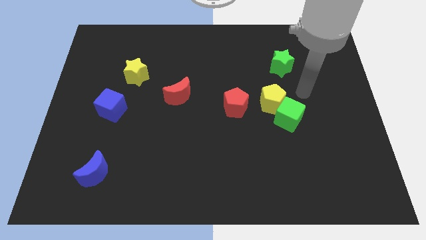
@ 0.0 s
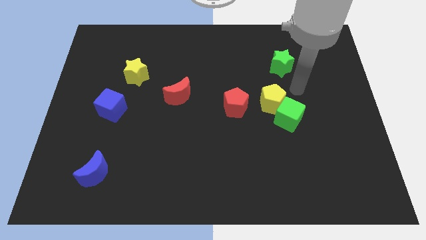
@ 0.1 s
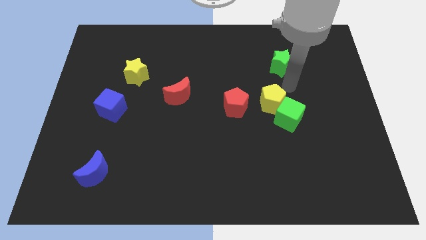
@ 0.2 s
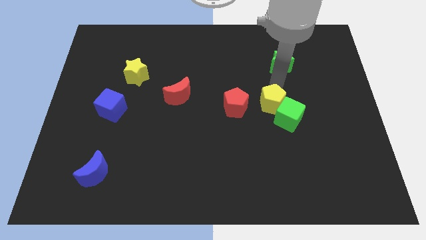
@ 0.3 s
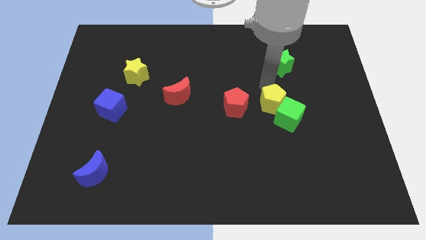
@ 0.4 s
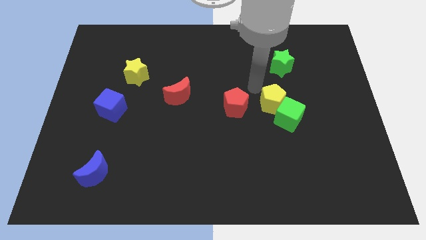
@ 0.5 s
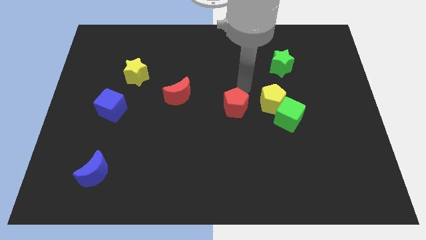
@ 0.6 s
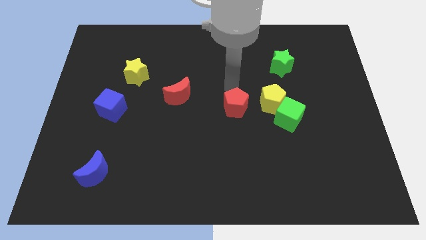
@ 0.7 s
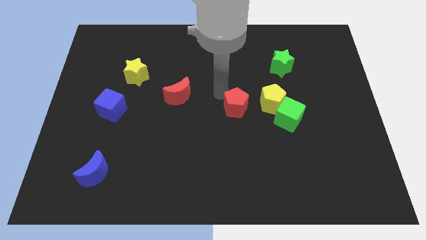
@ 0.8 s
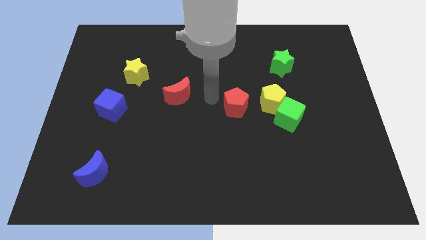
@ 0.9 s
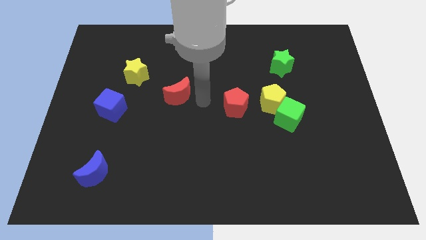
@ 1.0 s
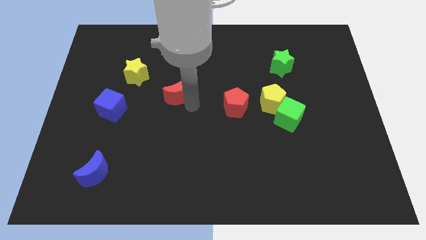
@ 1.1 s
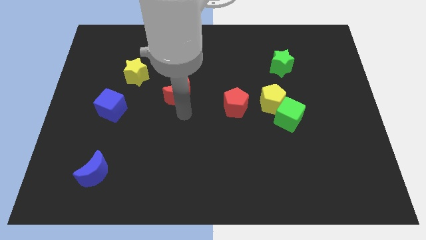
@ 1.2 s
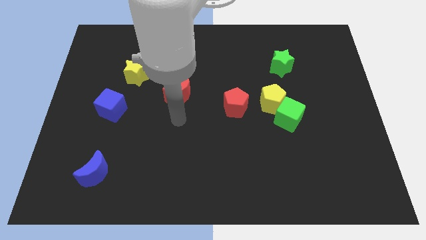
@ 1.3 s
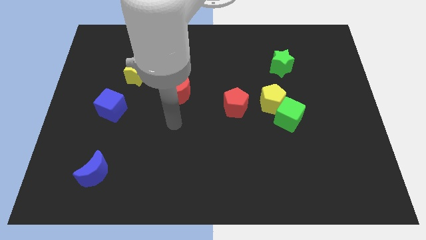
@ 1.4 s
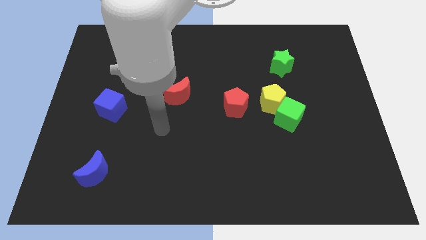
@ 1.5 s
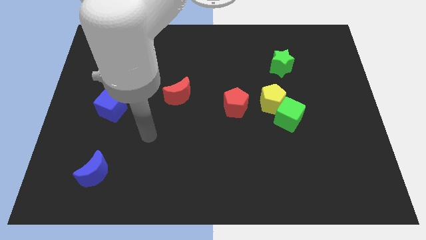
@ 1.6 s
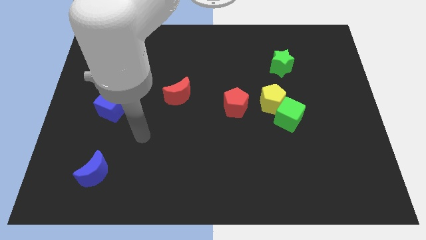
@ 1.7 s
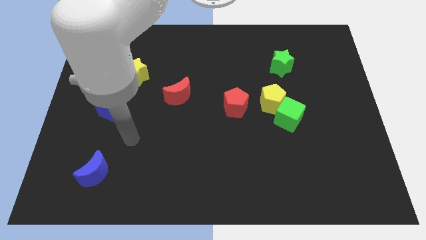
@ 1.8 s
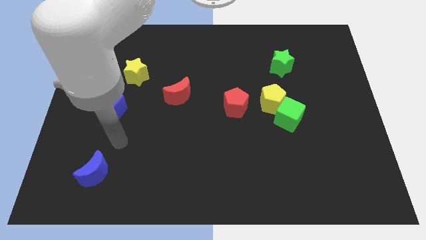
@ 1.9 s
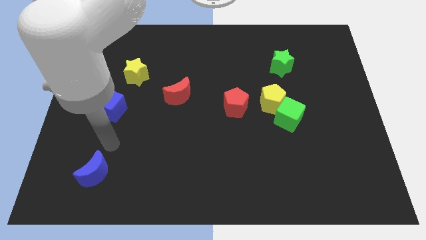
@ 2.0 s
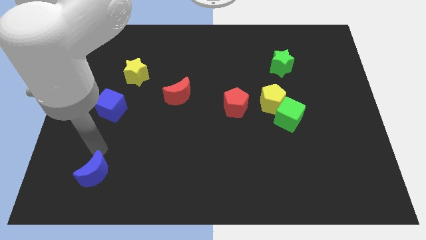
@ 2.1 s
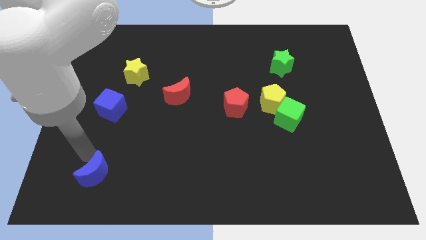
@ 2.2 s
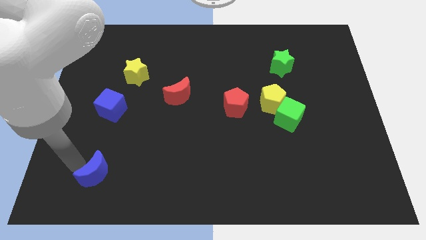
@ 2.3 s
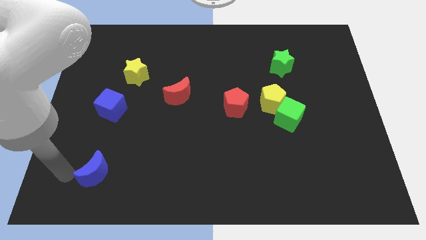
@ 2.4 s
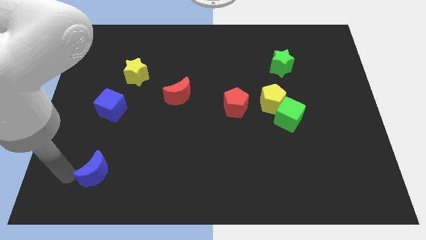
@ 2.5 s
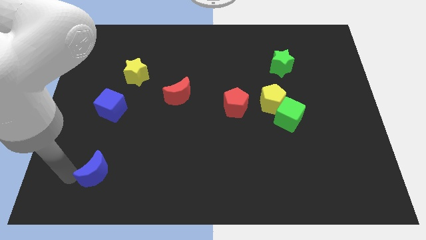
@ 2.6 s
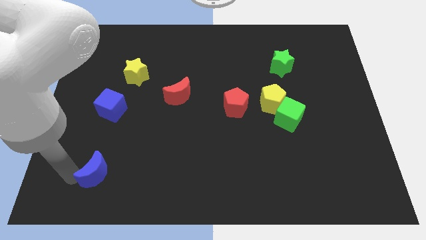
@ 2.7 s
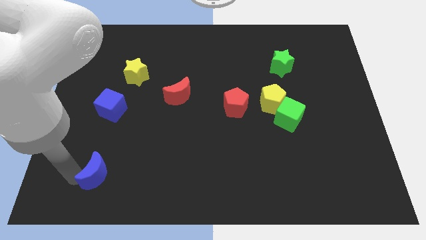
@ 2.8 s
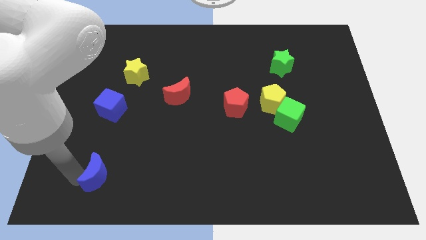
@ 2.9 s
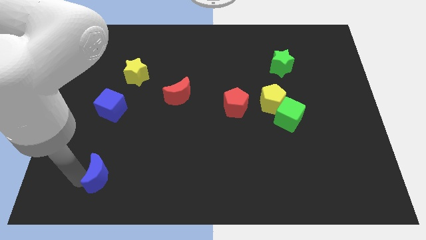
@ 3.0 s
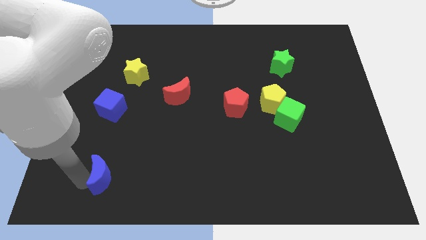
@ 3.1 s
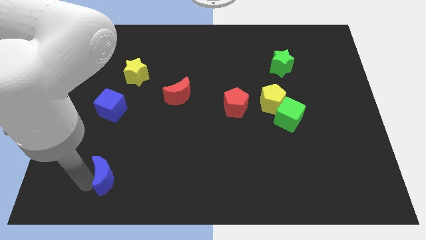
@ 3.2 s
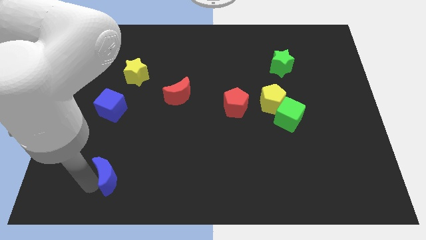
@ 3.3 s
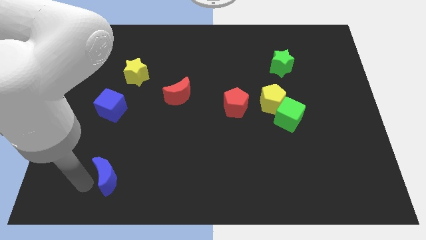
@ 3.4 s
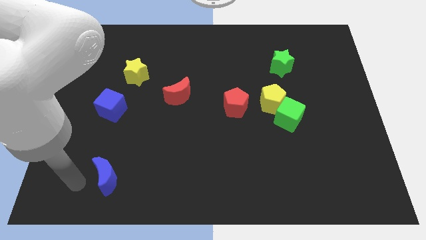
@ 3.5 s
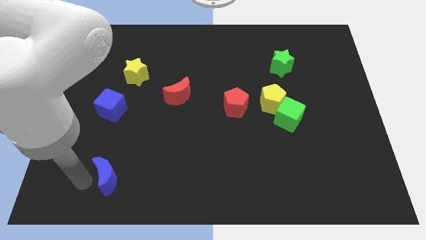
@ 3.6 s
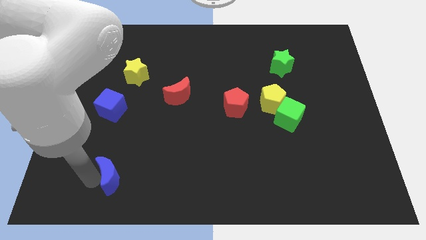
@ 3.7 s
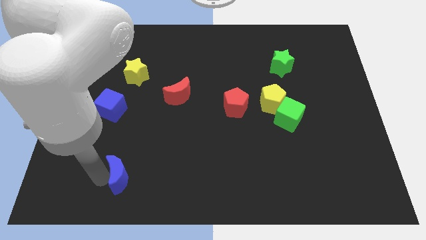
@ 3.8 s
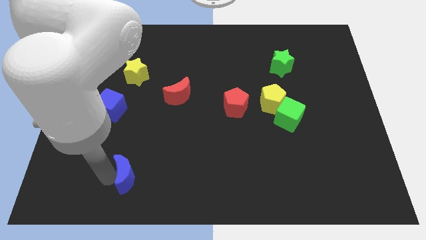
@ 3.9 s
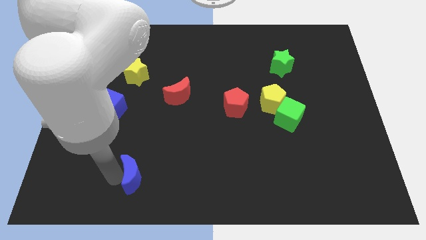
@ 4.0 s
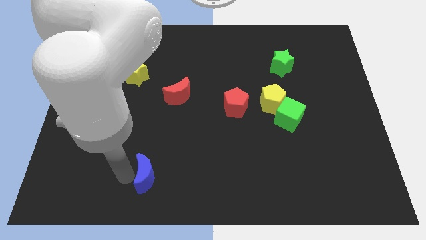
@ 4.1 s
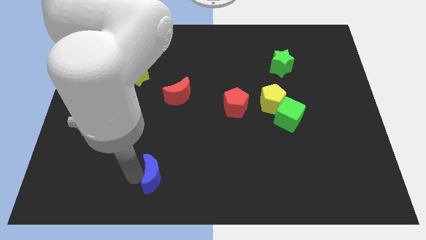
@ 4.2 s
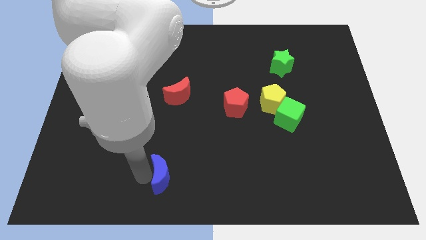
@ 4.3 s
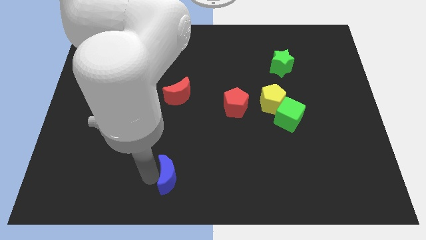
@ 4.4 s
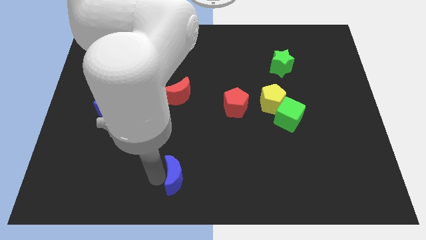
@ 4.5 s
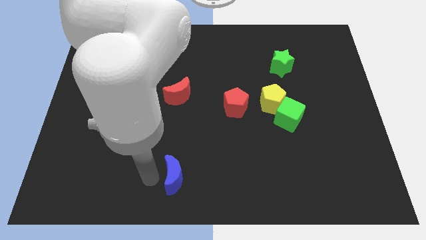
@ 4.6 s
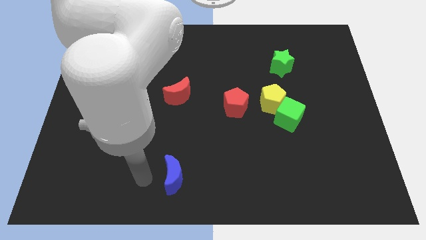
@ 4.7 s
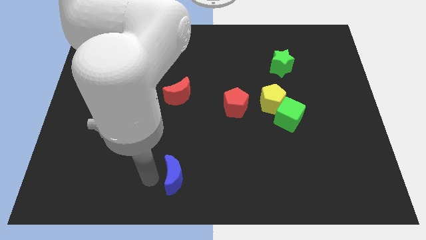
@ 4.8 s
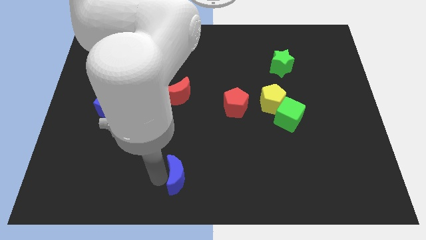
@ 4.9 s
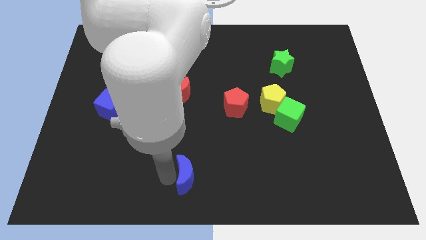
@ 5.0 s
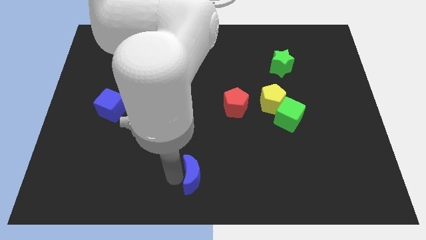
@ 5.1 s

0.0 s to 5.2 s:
slide the blue moon right

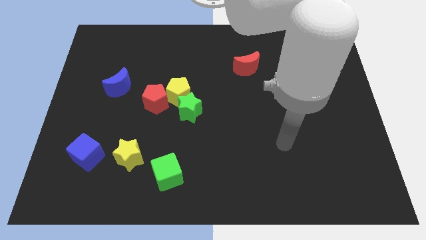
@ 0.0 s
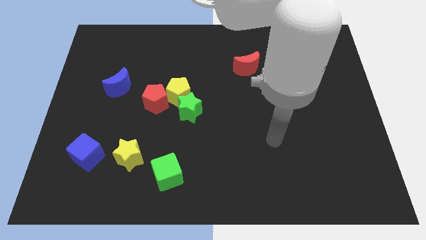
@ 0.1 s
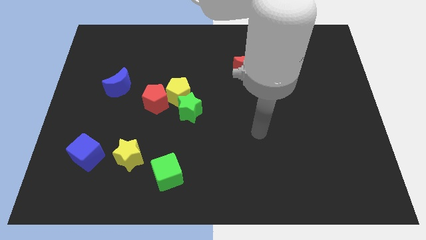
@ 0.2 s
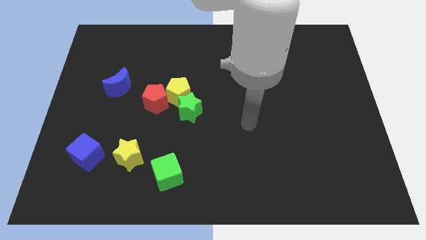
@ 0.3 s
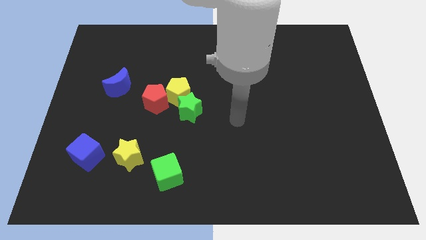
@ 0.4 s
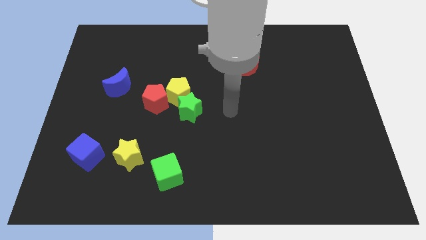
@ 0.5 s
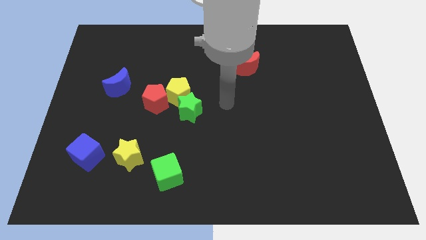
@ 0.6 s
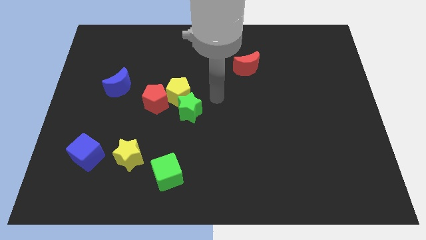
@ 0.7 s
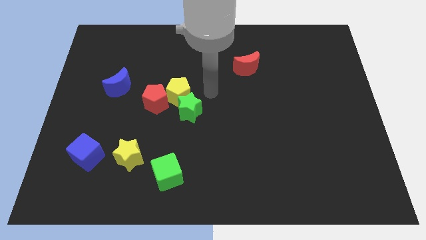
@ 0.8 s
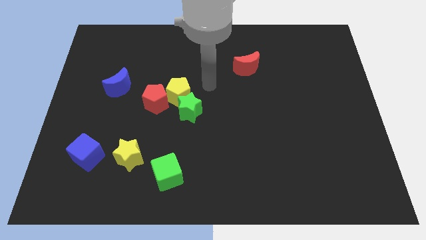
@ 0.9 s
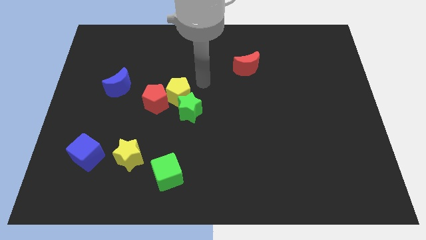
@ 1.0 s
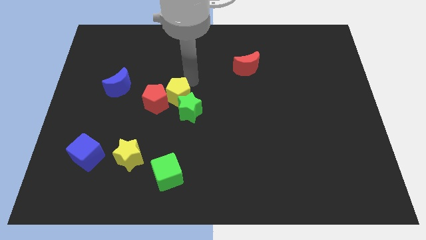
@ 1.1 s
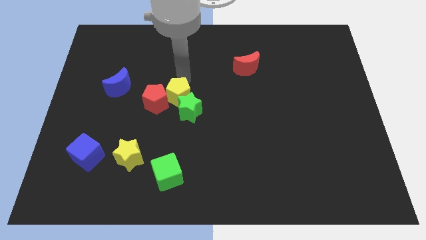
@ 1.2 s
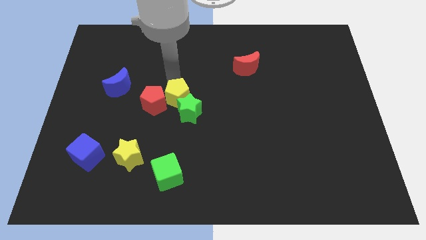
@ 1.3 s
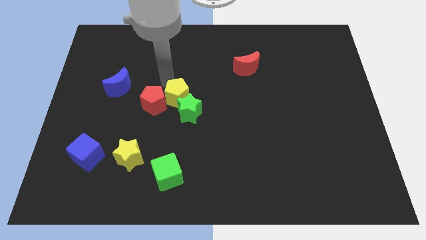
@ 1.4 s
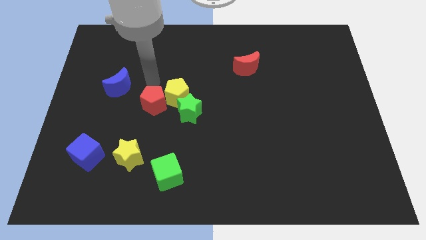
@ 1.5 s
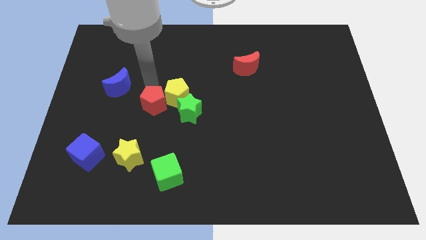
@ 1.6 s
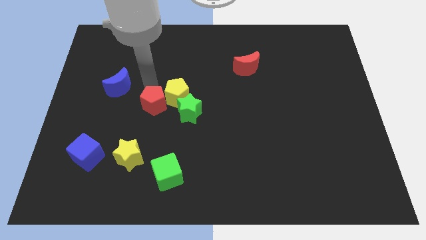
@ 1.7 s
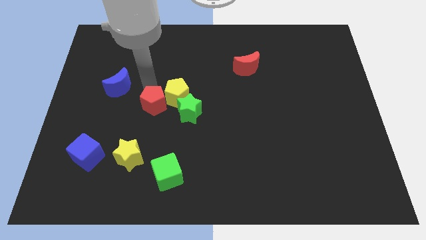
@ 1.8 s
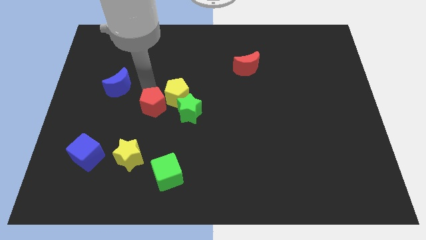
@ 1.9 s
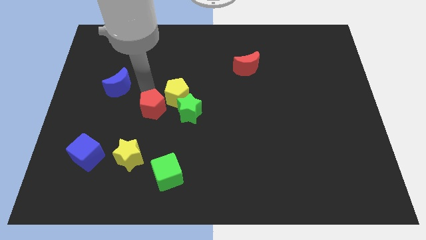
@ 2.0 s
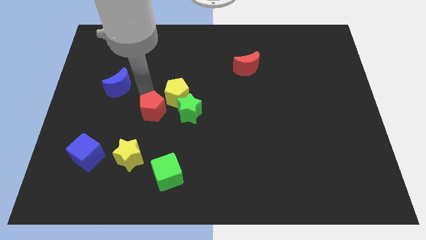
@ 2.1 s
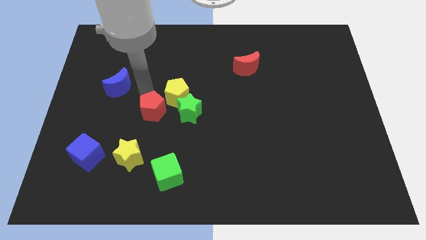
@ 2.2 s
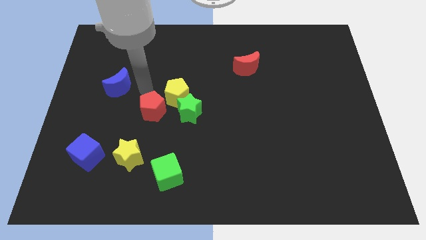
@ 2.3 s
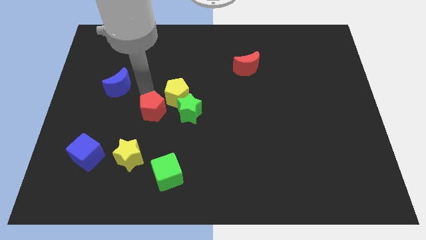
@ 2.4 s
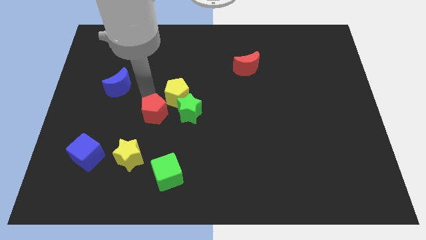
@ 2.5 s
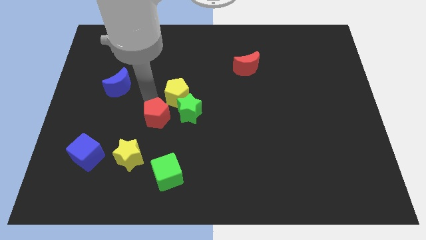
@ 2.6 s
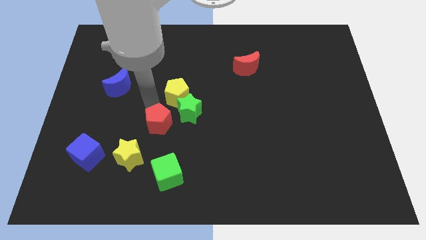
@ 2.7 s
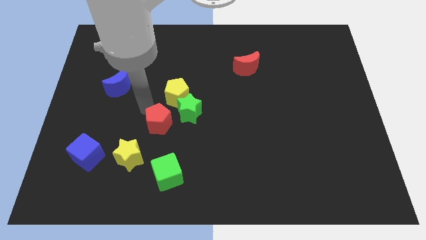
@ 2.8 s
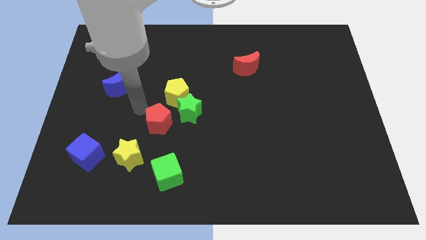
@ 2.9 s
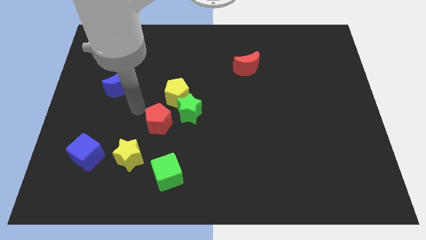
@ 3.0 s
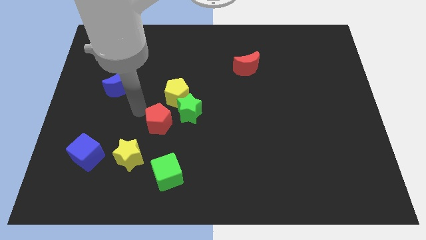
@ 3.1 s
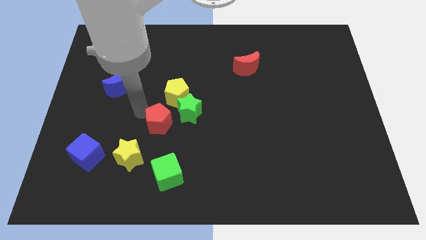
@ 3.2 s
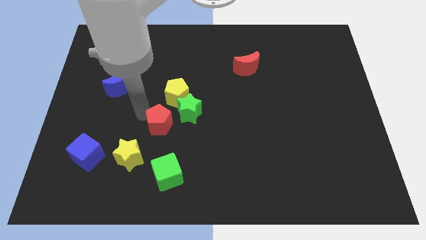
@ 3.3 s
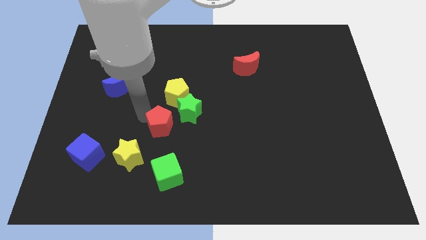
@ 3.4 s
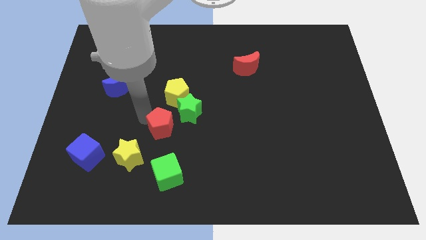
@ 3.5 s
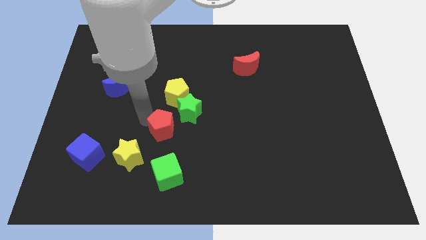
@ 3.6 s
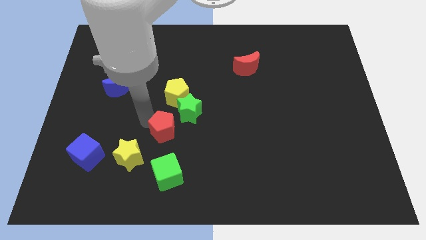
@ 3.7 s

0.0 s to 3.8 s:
slightly slide the red pentagon down and right
